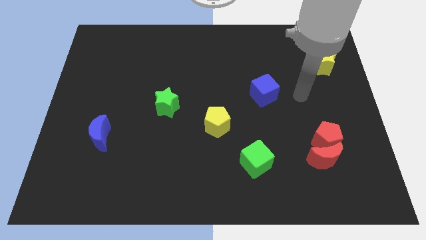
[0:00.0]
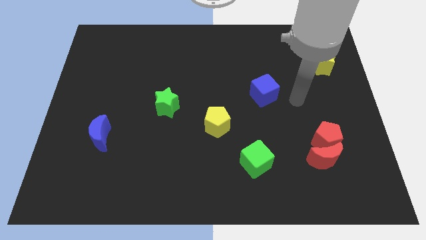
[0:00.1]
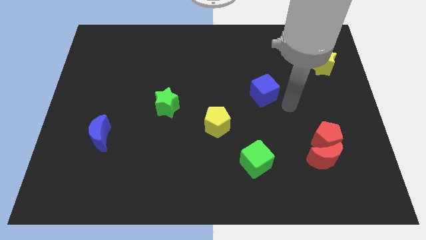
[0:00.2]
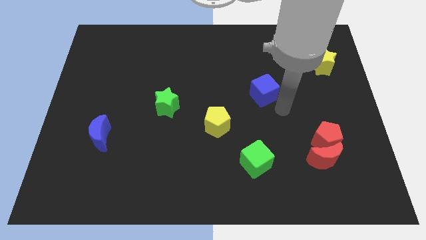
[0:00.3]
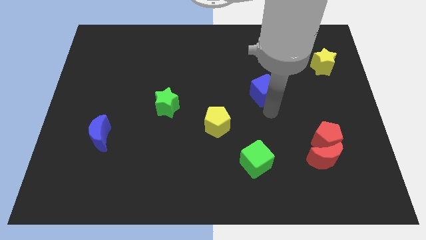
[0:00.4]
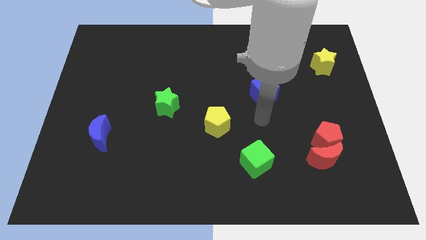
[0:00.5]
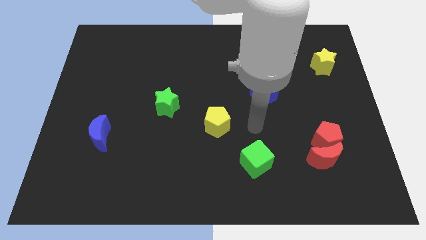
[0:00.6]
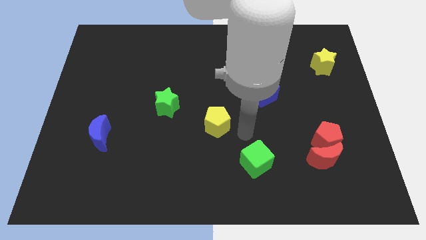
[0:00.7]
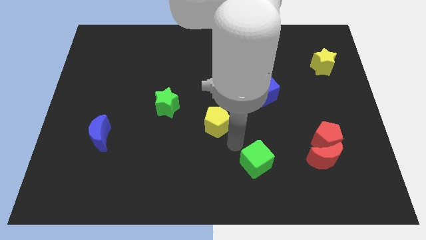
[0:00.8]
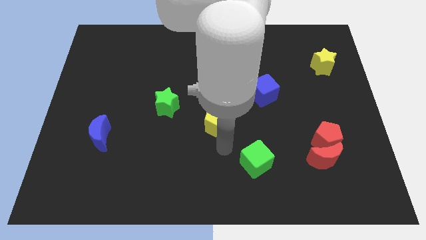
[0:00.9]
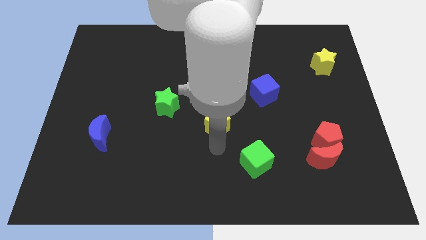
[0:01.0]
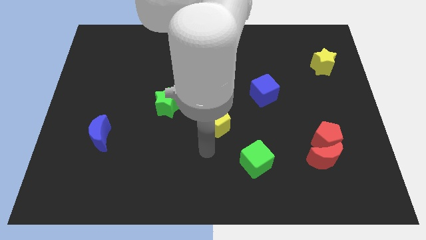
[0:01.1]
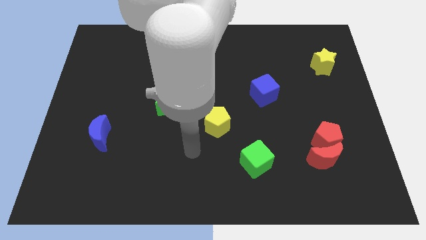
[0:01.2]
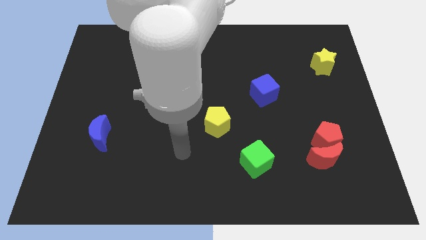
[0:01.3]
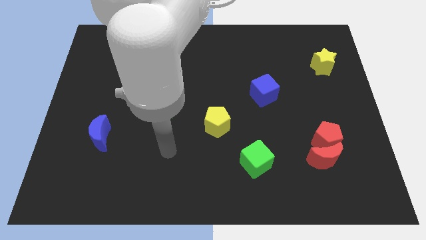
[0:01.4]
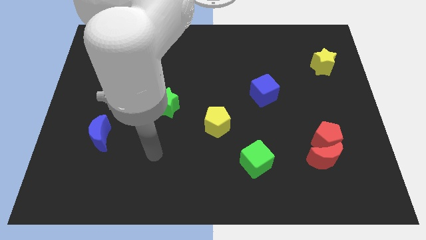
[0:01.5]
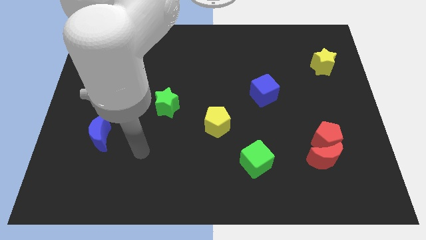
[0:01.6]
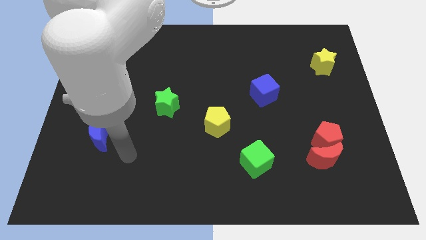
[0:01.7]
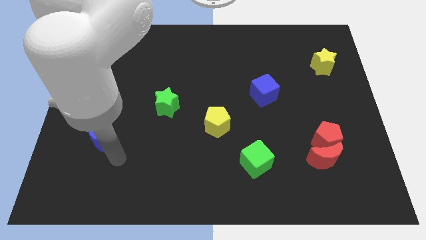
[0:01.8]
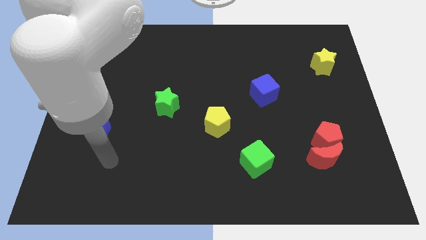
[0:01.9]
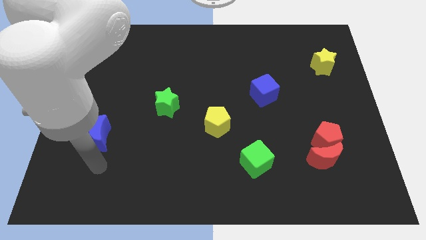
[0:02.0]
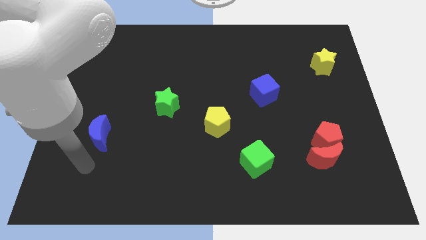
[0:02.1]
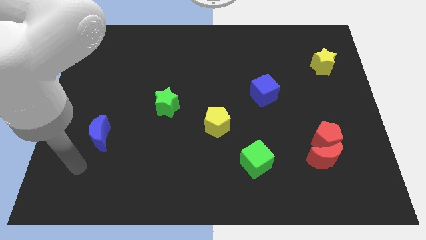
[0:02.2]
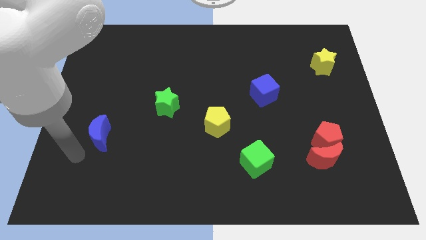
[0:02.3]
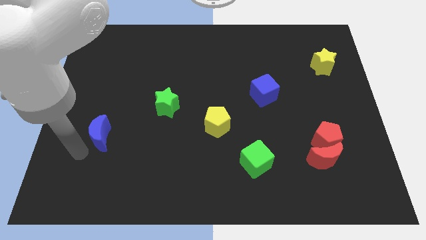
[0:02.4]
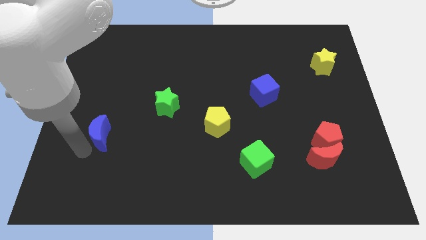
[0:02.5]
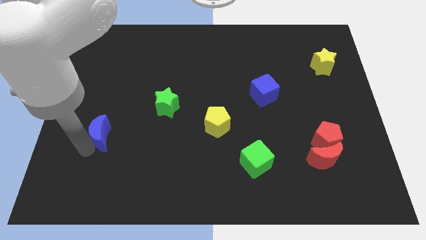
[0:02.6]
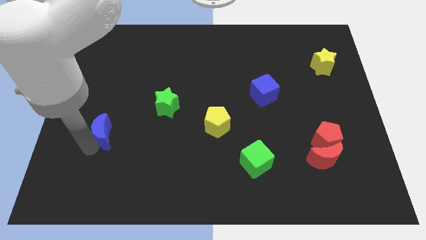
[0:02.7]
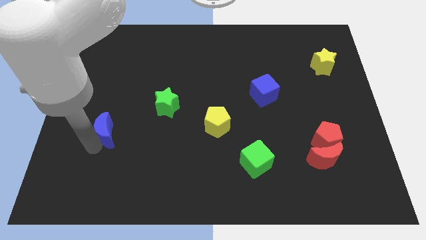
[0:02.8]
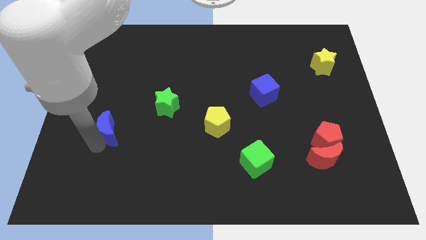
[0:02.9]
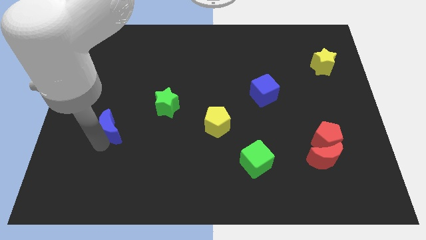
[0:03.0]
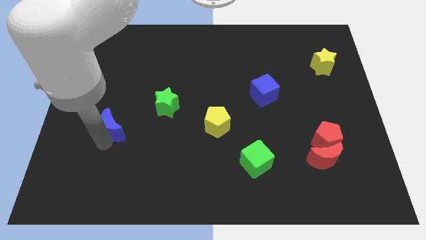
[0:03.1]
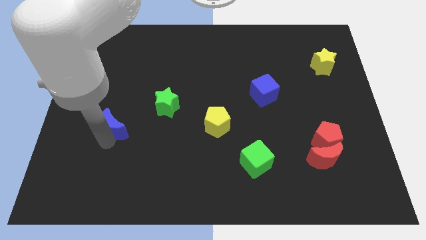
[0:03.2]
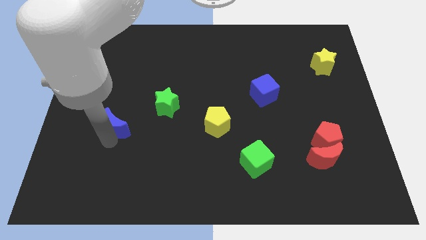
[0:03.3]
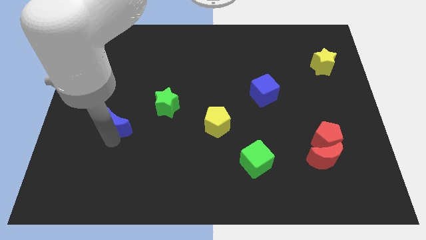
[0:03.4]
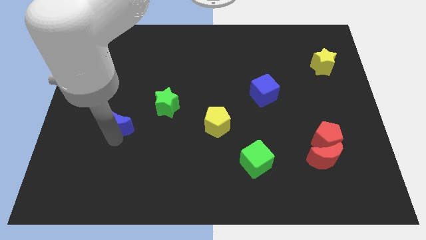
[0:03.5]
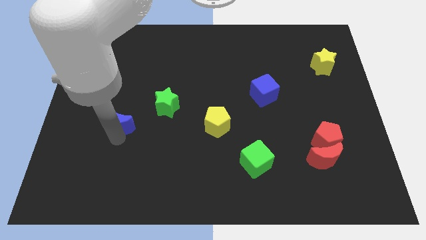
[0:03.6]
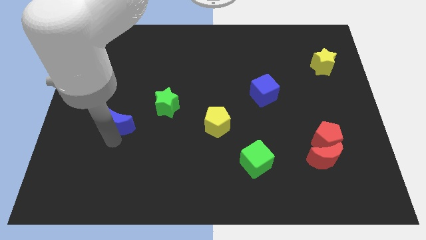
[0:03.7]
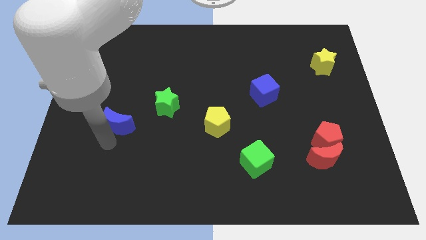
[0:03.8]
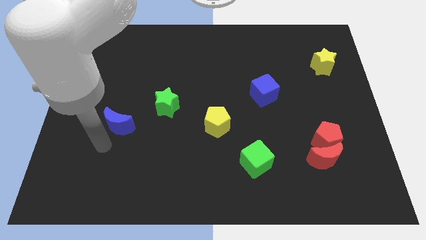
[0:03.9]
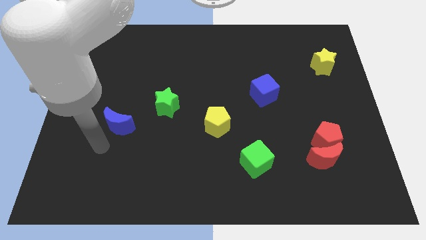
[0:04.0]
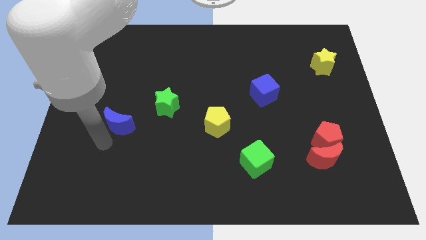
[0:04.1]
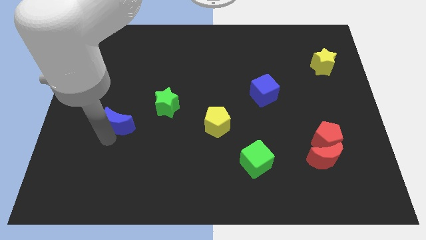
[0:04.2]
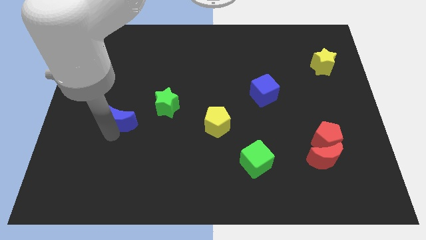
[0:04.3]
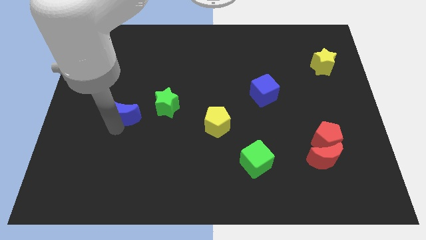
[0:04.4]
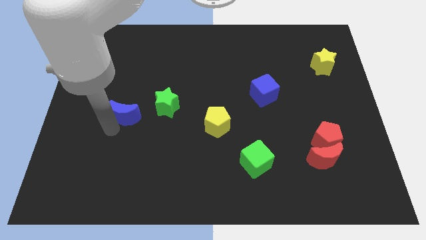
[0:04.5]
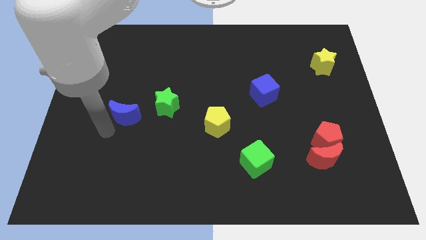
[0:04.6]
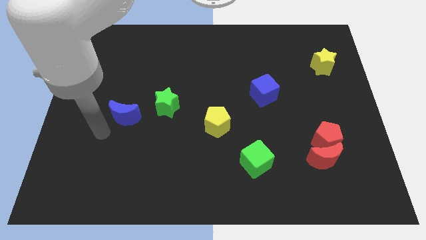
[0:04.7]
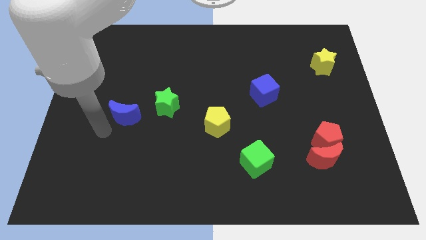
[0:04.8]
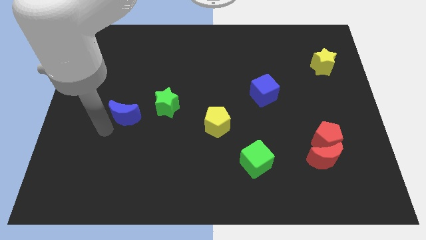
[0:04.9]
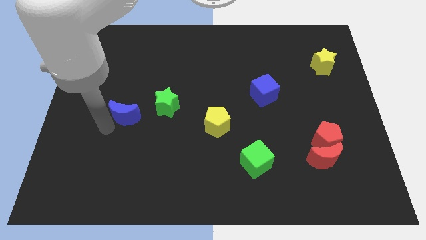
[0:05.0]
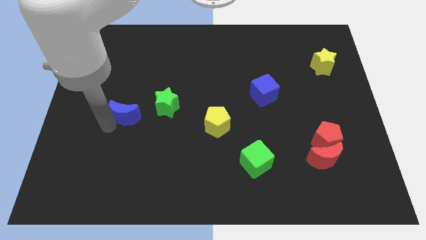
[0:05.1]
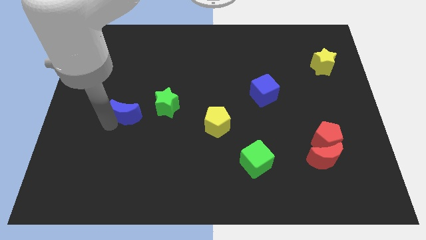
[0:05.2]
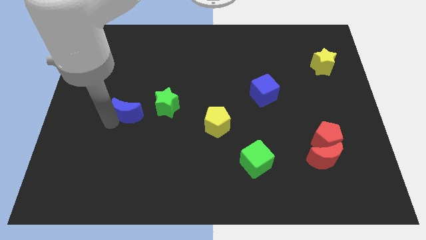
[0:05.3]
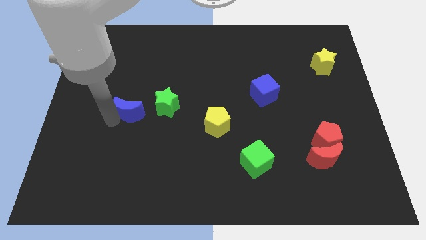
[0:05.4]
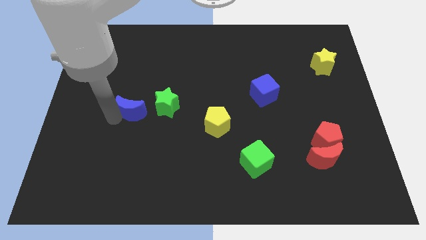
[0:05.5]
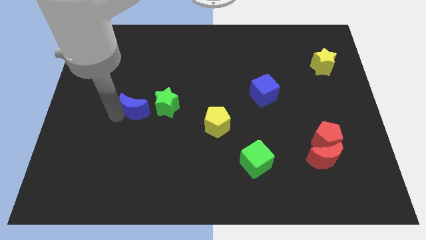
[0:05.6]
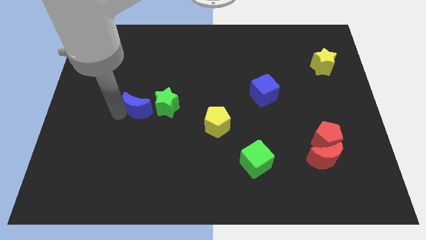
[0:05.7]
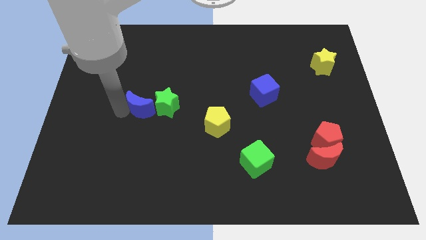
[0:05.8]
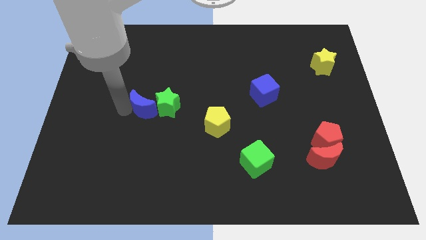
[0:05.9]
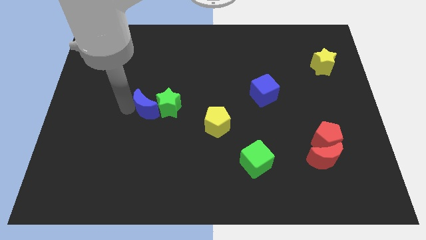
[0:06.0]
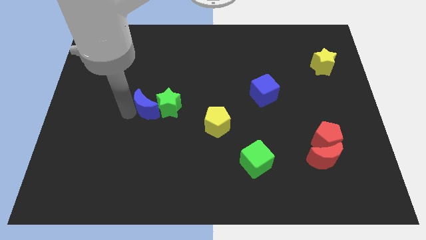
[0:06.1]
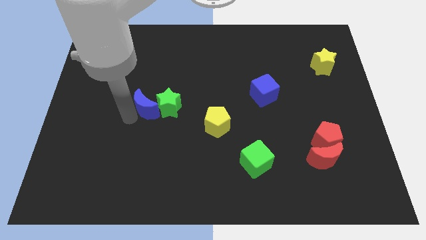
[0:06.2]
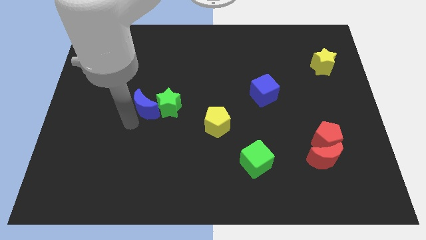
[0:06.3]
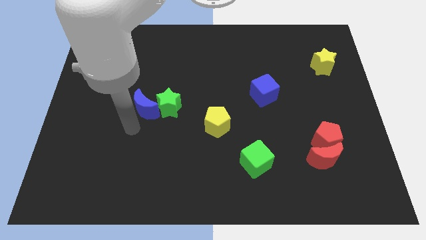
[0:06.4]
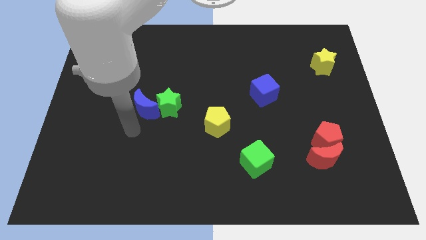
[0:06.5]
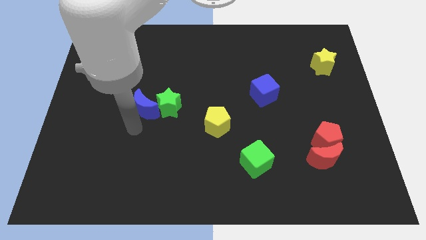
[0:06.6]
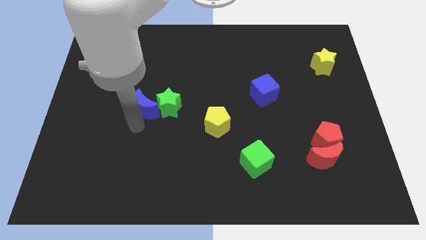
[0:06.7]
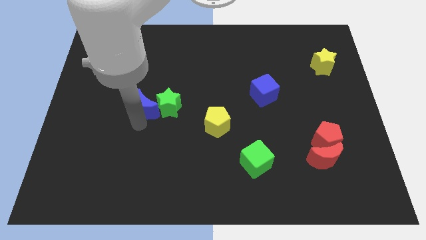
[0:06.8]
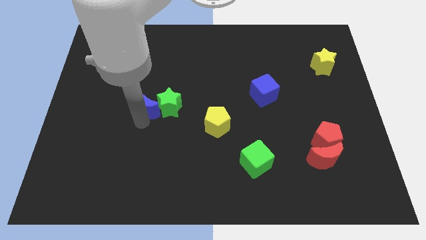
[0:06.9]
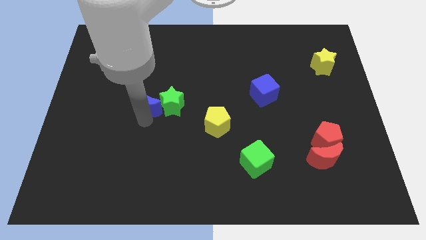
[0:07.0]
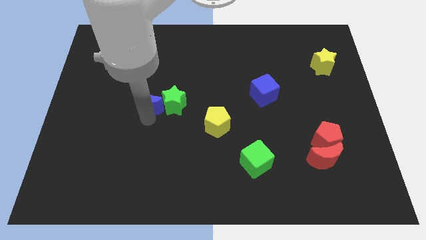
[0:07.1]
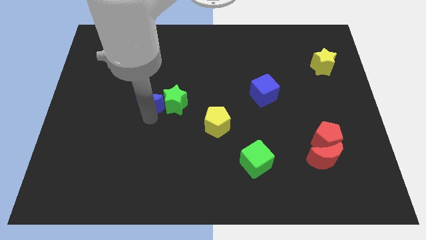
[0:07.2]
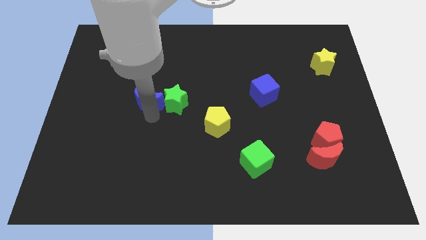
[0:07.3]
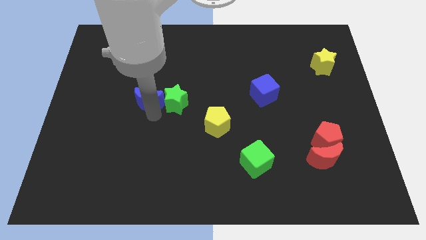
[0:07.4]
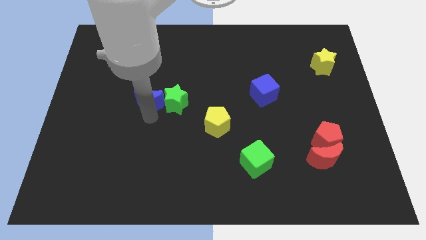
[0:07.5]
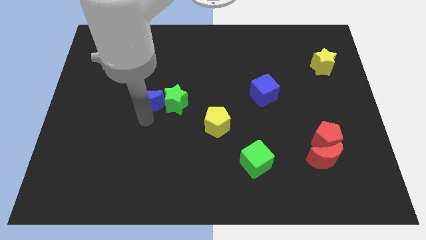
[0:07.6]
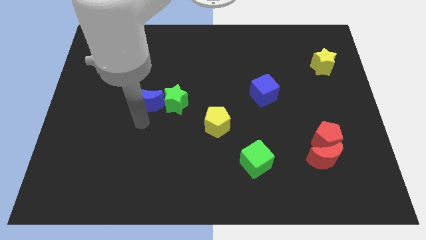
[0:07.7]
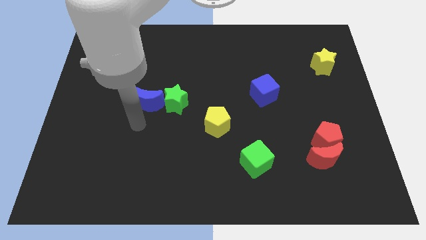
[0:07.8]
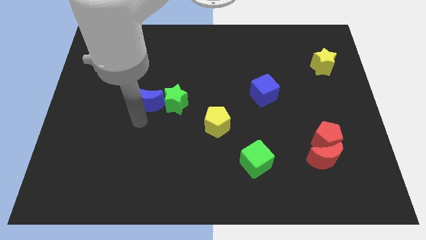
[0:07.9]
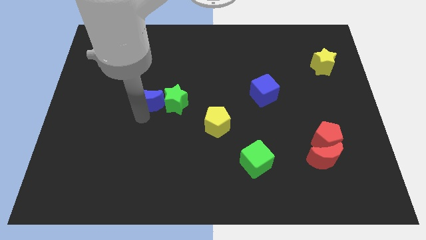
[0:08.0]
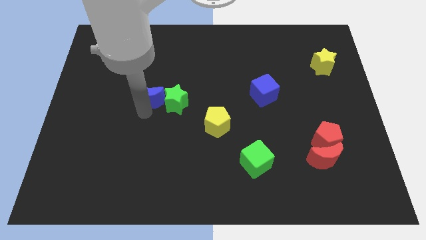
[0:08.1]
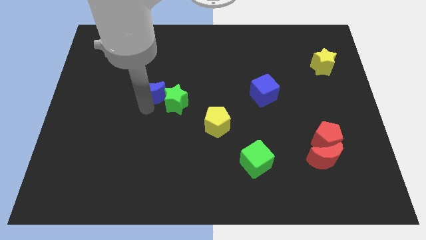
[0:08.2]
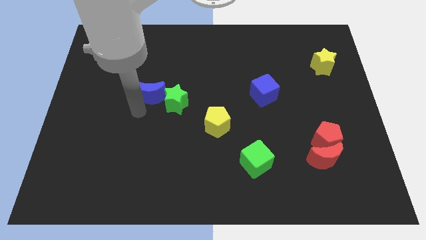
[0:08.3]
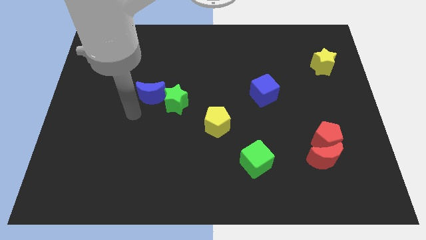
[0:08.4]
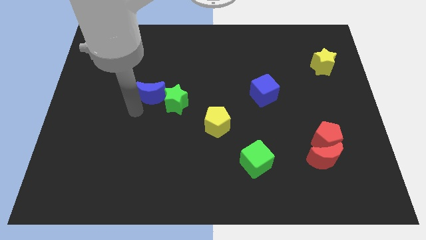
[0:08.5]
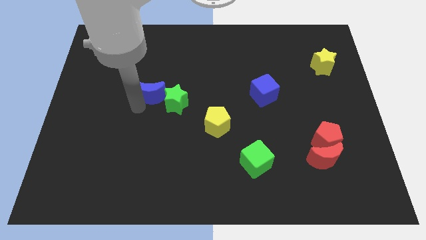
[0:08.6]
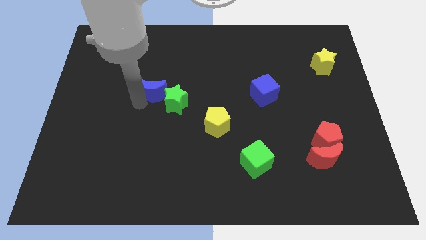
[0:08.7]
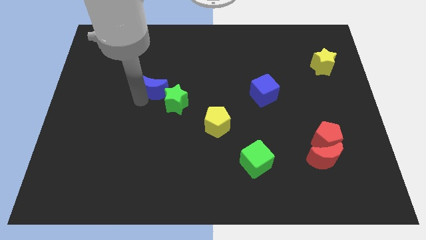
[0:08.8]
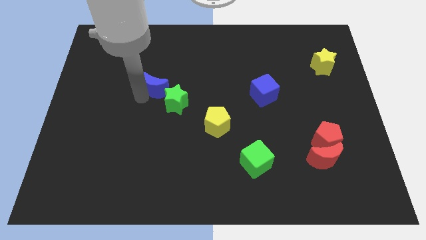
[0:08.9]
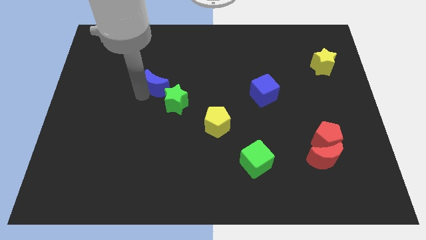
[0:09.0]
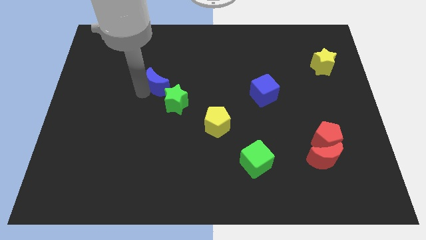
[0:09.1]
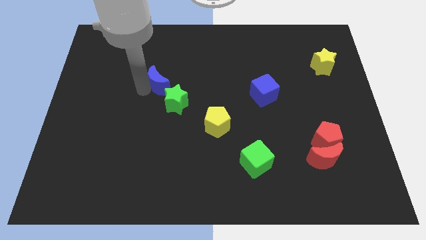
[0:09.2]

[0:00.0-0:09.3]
put the blue moon to the top side of the green star
